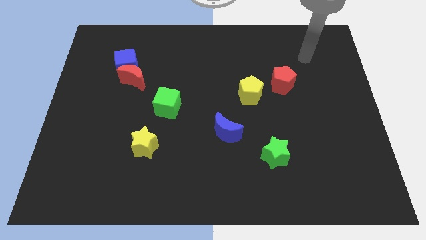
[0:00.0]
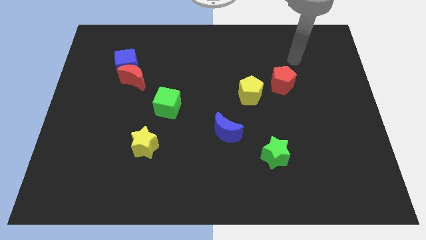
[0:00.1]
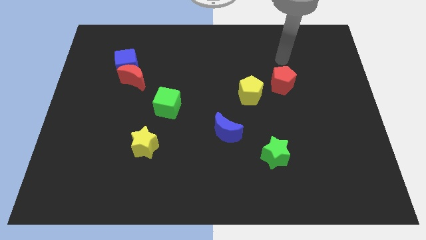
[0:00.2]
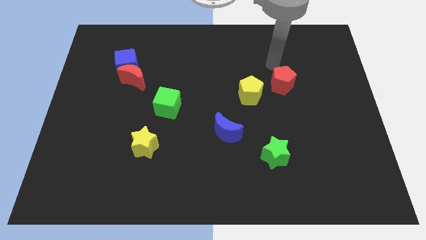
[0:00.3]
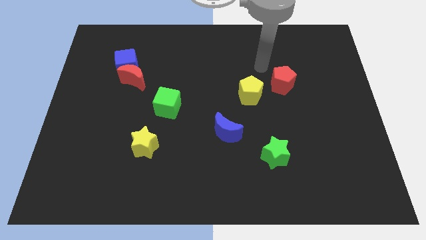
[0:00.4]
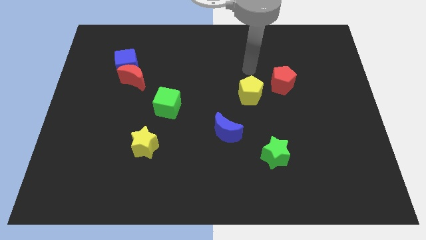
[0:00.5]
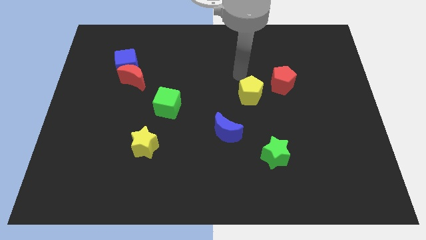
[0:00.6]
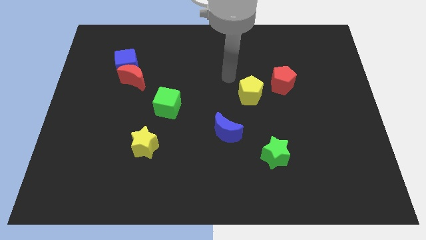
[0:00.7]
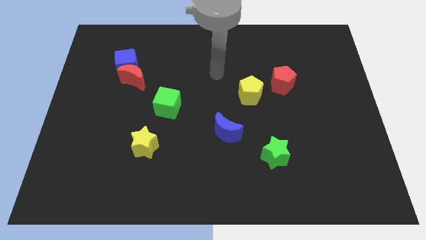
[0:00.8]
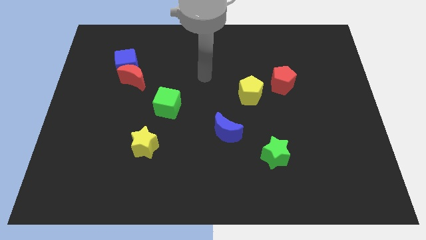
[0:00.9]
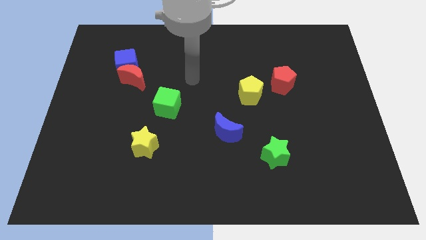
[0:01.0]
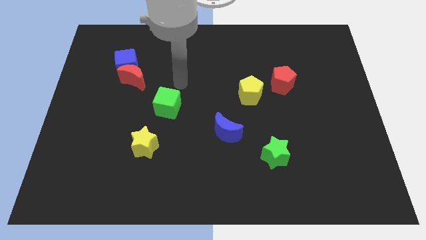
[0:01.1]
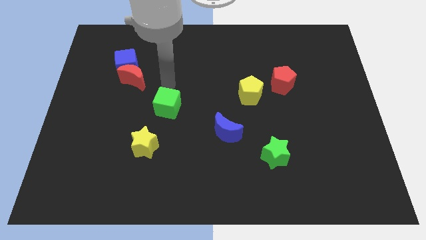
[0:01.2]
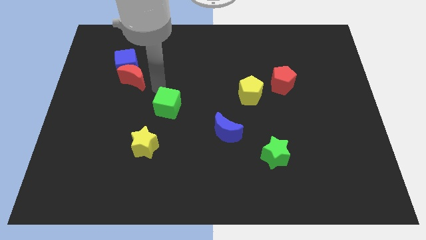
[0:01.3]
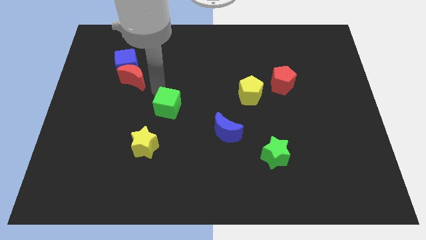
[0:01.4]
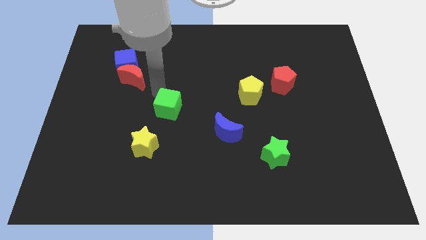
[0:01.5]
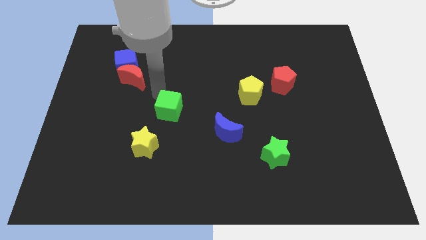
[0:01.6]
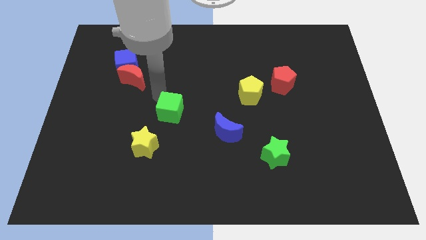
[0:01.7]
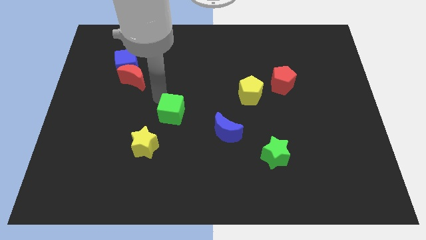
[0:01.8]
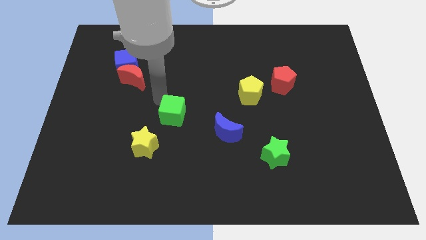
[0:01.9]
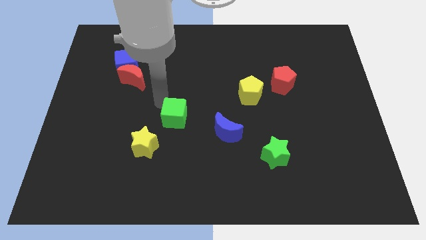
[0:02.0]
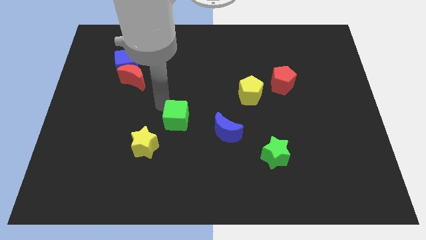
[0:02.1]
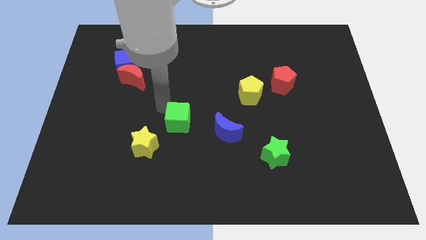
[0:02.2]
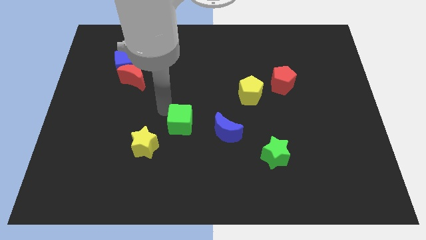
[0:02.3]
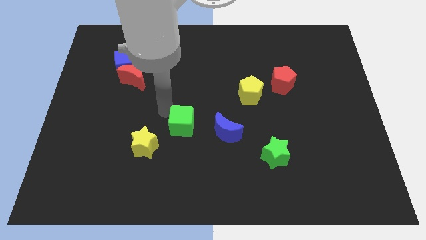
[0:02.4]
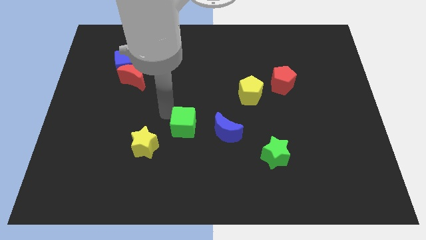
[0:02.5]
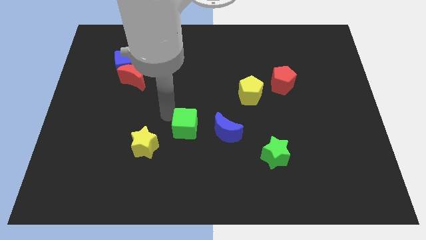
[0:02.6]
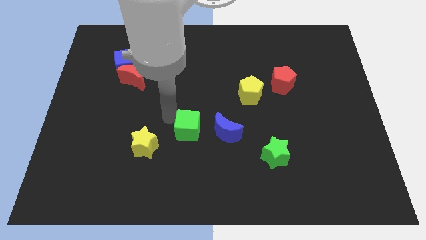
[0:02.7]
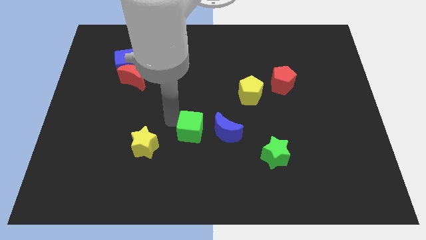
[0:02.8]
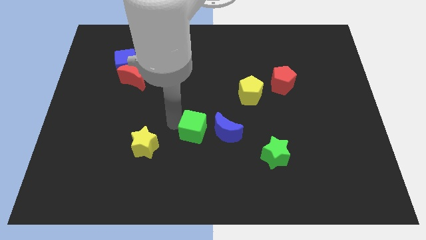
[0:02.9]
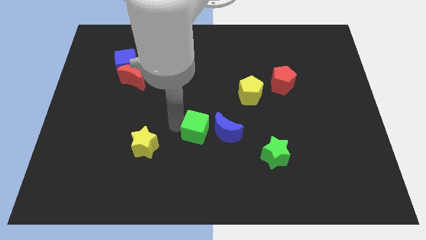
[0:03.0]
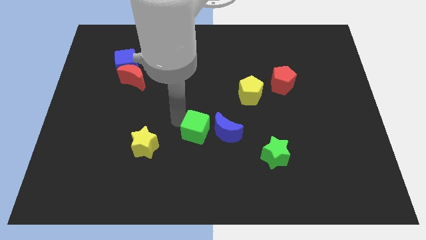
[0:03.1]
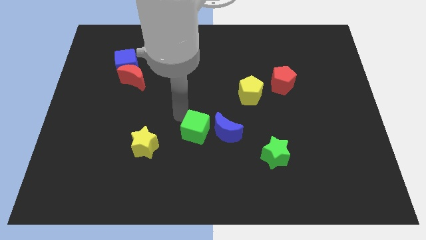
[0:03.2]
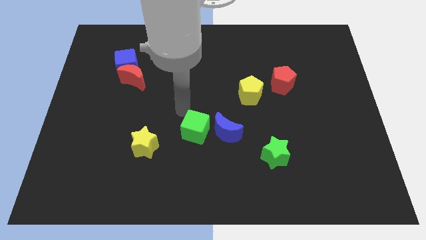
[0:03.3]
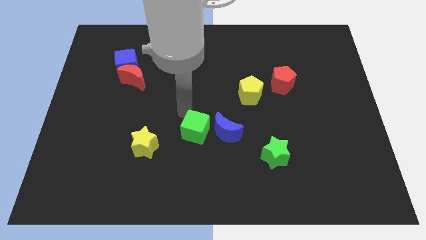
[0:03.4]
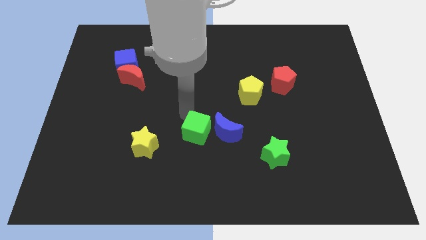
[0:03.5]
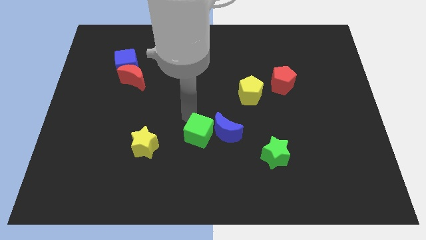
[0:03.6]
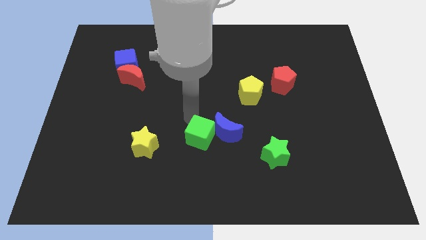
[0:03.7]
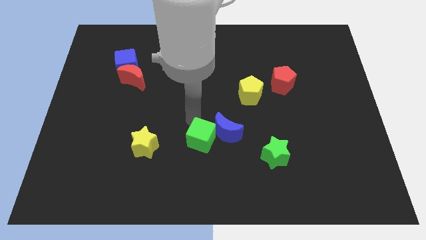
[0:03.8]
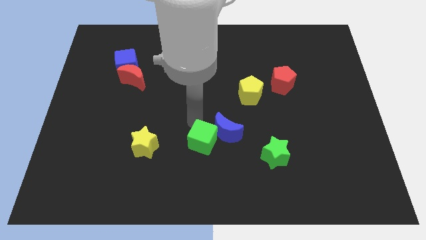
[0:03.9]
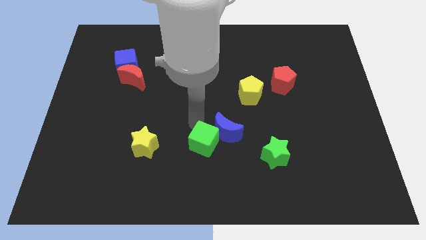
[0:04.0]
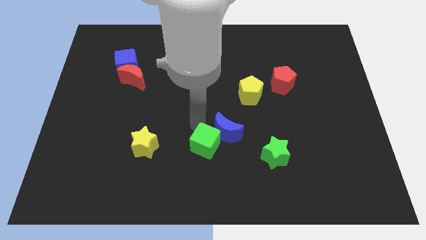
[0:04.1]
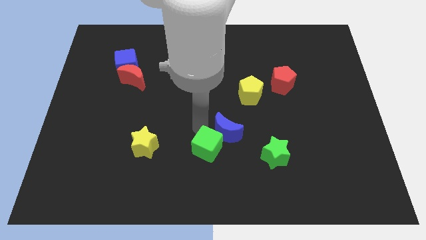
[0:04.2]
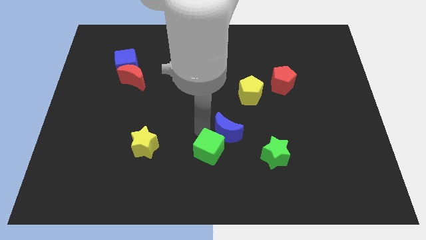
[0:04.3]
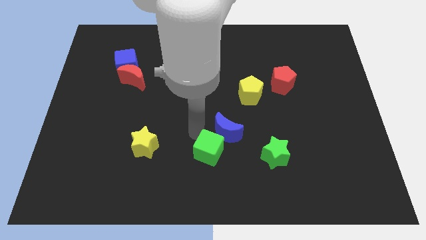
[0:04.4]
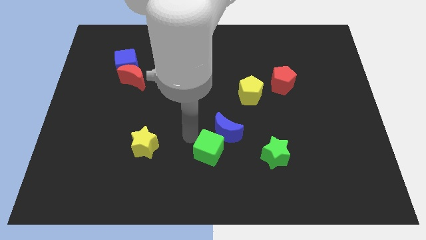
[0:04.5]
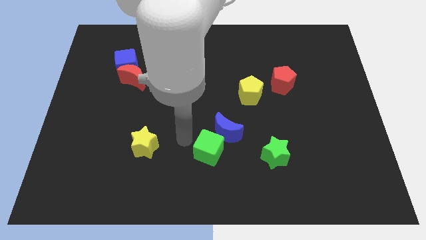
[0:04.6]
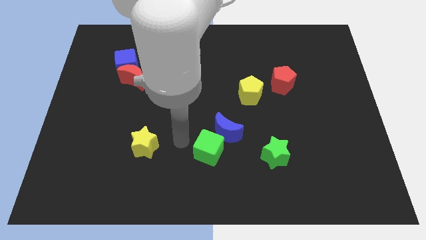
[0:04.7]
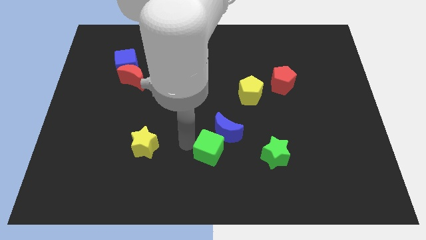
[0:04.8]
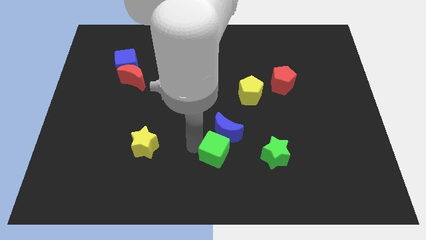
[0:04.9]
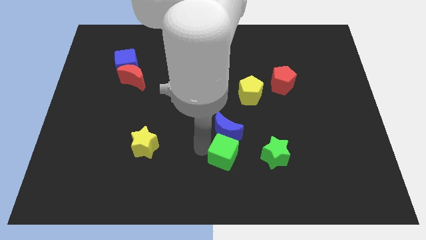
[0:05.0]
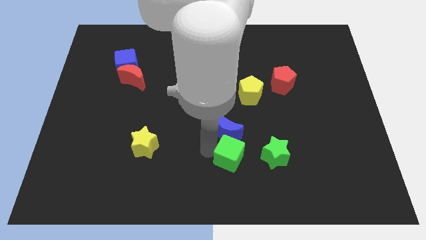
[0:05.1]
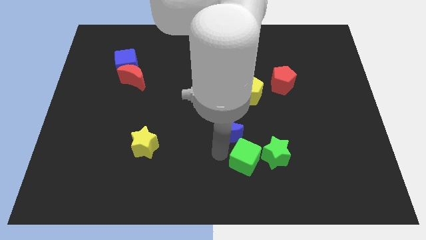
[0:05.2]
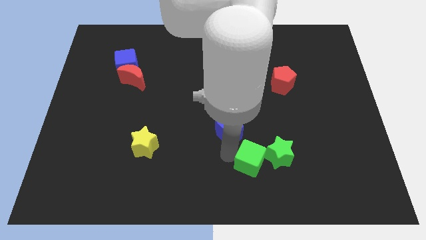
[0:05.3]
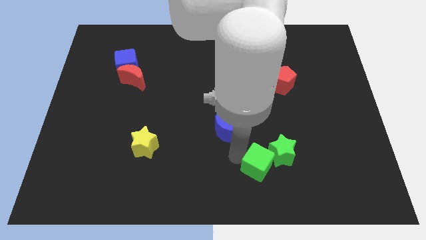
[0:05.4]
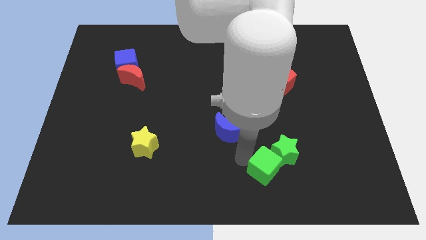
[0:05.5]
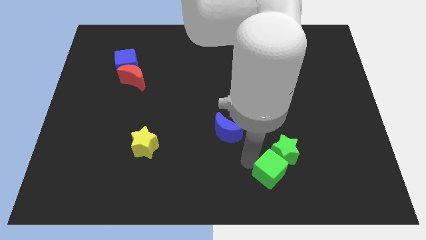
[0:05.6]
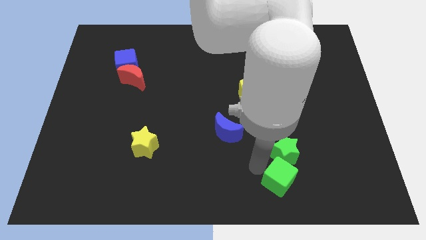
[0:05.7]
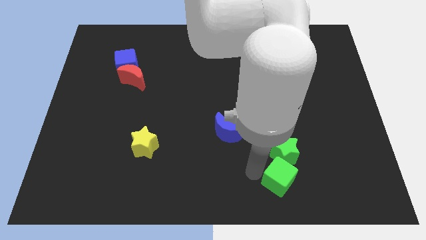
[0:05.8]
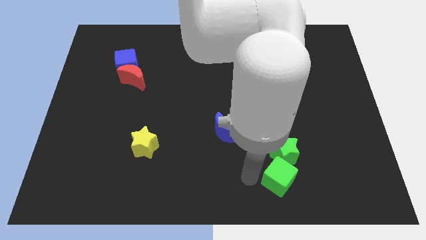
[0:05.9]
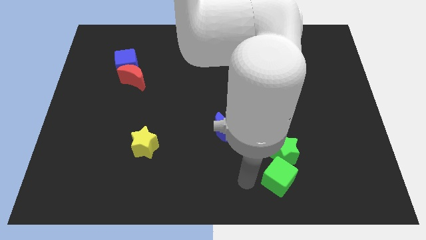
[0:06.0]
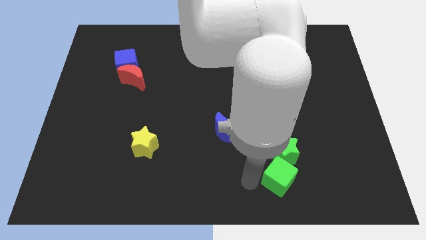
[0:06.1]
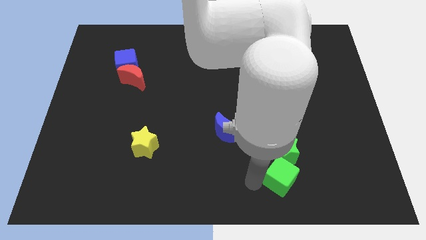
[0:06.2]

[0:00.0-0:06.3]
push the green cube to the bottom right of the green star

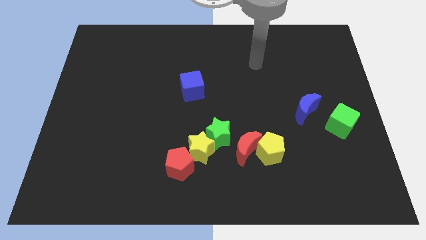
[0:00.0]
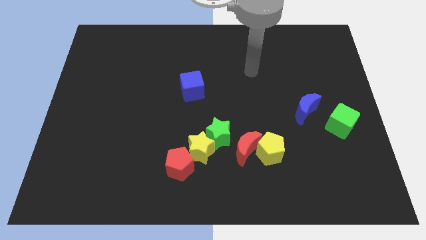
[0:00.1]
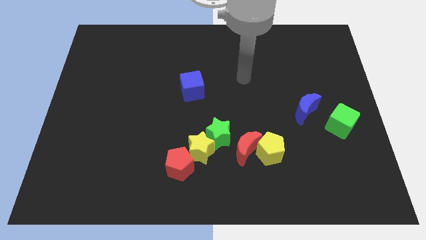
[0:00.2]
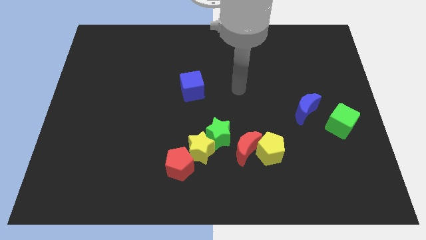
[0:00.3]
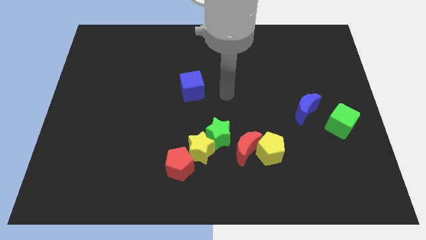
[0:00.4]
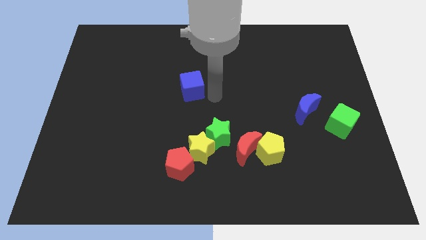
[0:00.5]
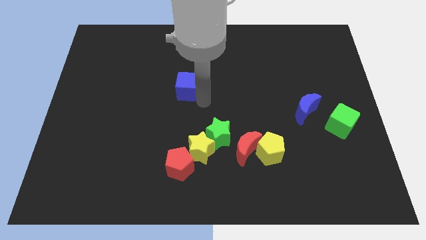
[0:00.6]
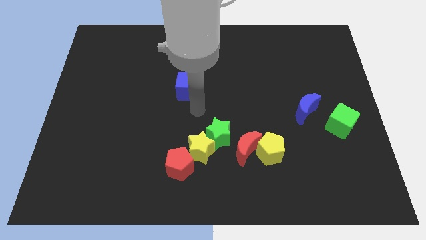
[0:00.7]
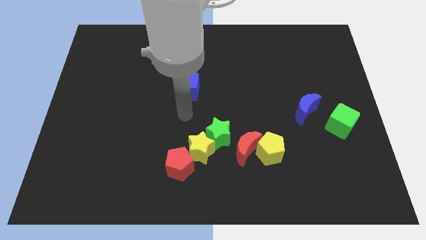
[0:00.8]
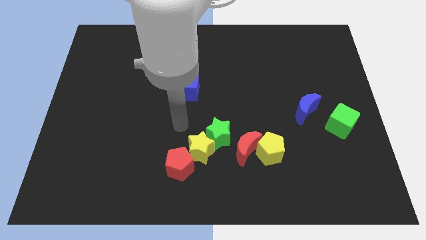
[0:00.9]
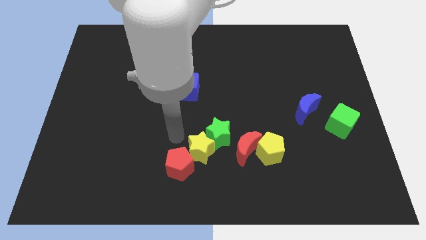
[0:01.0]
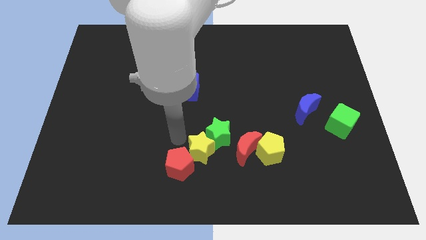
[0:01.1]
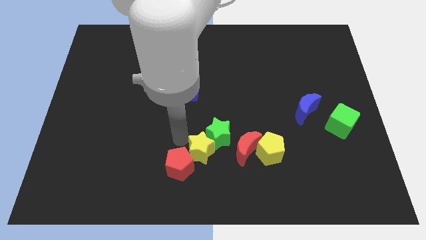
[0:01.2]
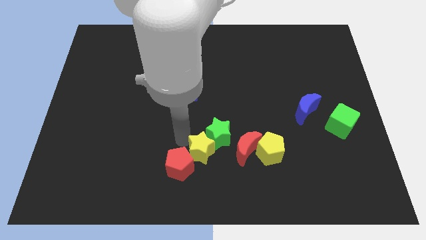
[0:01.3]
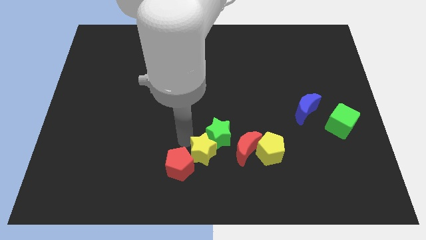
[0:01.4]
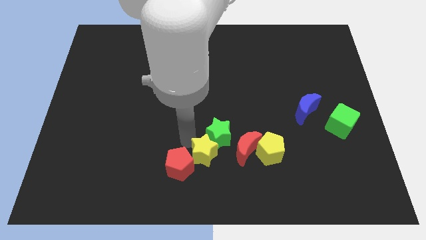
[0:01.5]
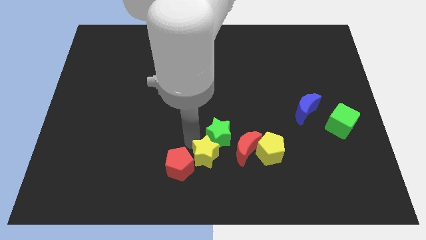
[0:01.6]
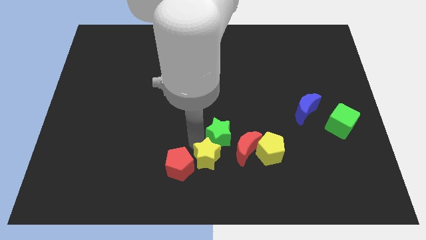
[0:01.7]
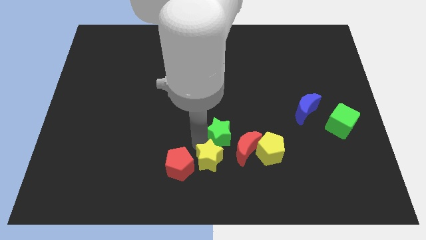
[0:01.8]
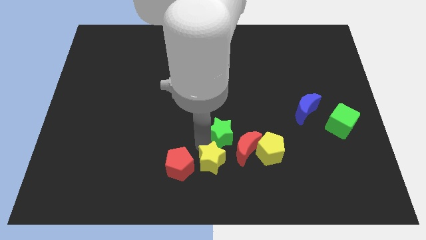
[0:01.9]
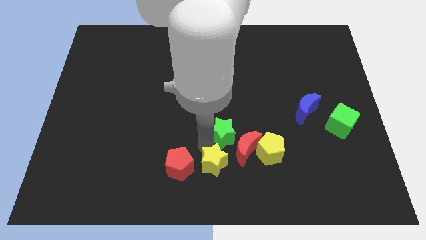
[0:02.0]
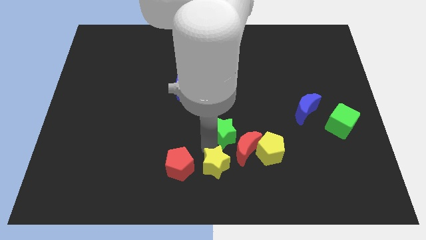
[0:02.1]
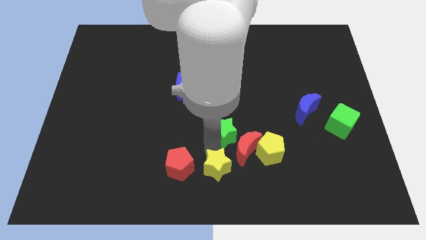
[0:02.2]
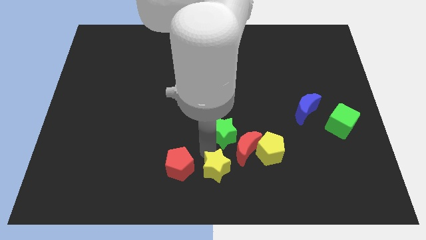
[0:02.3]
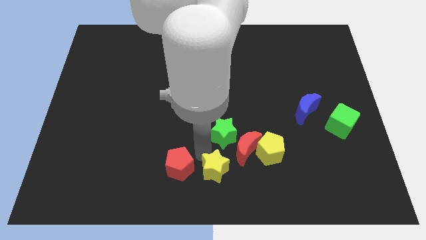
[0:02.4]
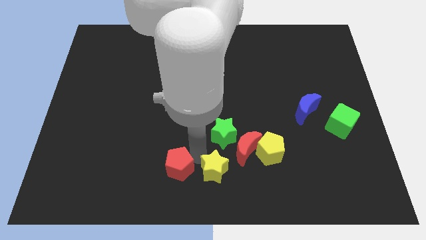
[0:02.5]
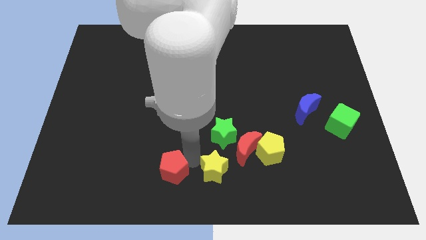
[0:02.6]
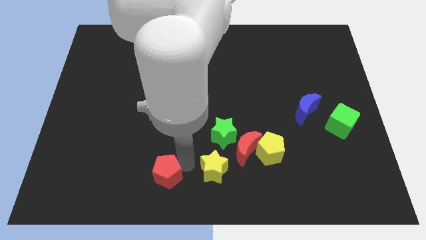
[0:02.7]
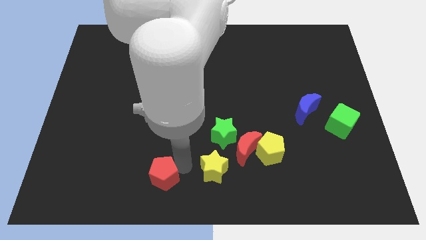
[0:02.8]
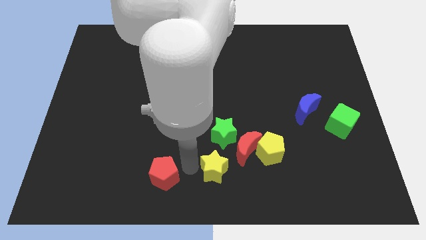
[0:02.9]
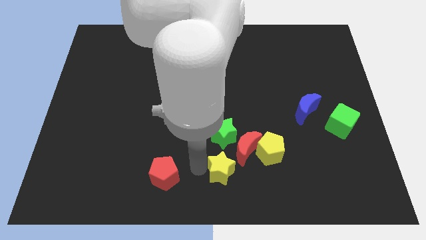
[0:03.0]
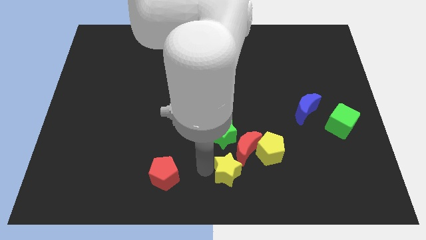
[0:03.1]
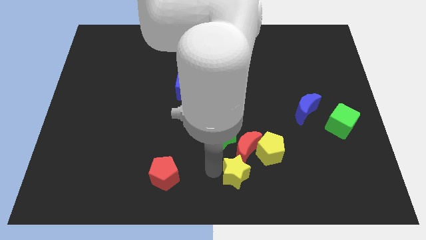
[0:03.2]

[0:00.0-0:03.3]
slide the yellow star diagonally down and to the right of the green star
